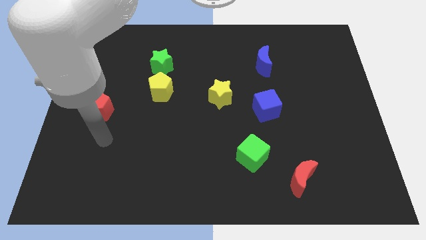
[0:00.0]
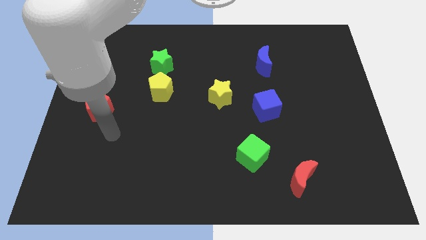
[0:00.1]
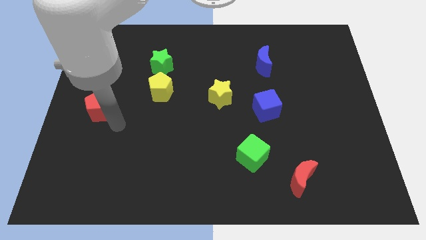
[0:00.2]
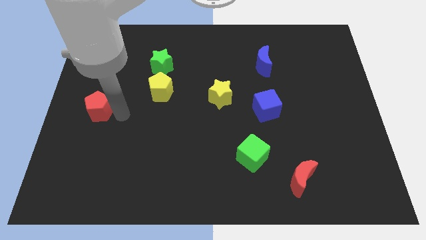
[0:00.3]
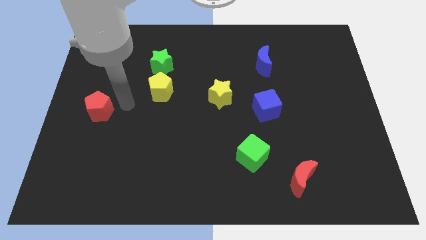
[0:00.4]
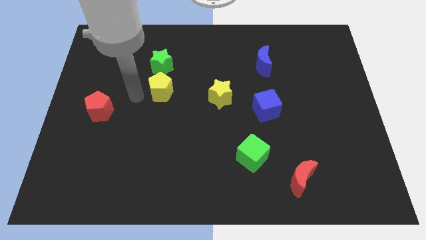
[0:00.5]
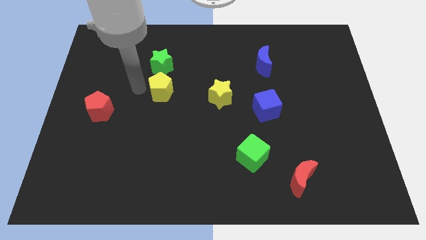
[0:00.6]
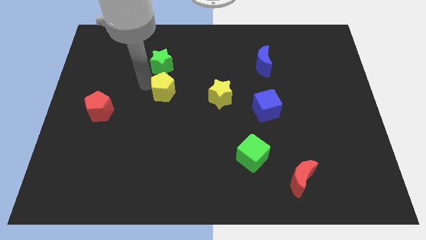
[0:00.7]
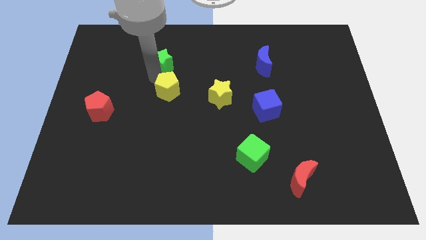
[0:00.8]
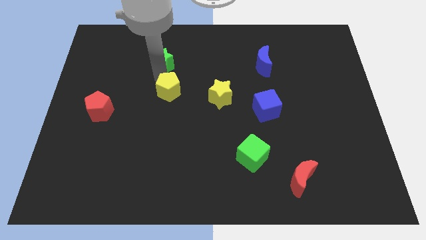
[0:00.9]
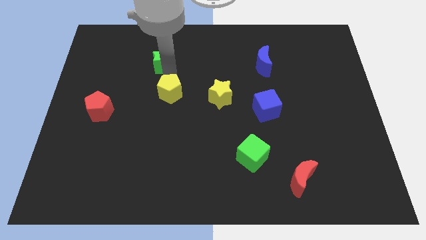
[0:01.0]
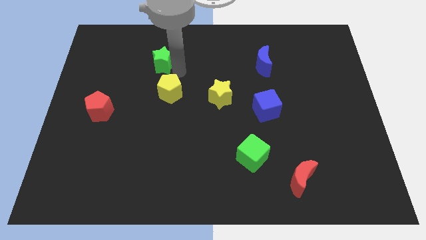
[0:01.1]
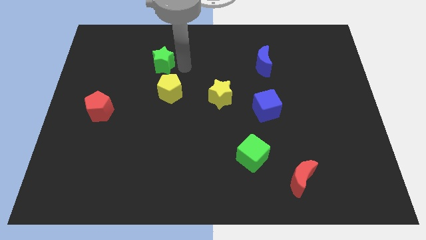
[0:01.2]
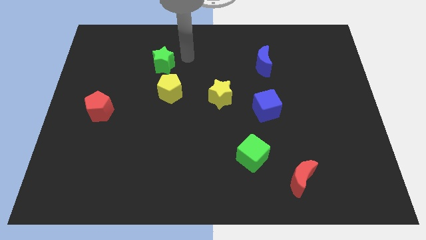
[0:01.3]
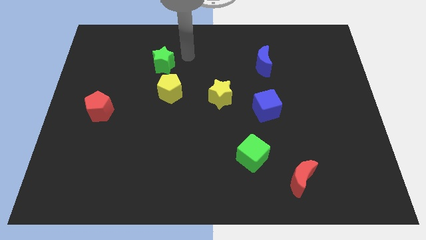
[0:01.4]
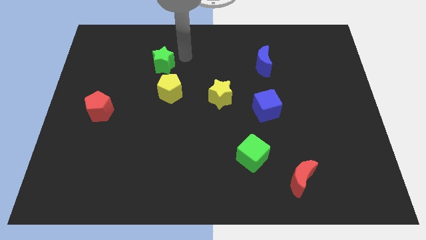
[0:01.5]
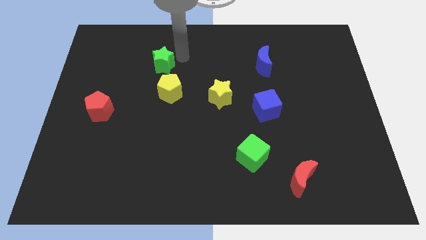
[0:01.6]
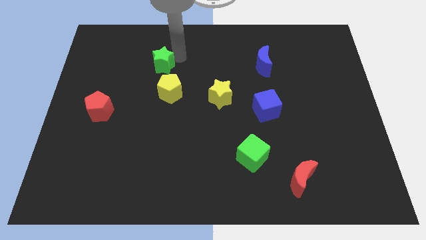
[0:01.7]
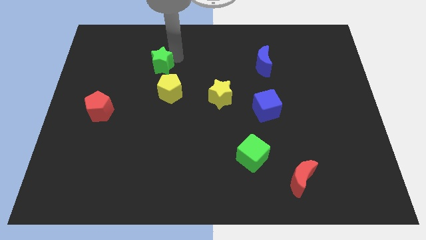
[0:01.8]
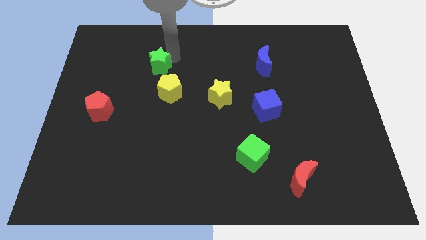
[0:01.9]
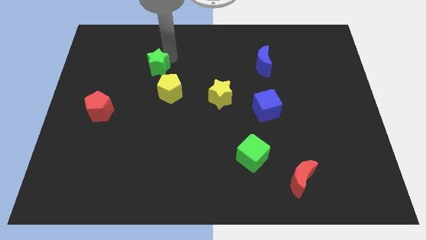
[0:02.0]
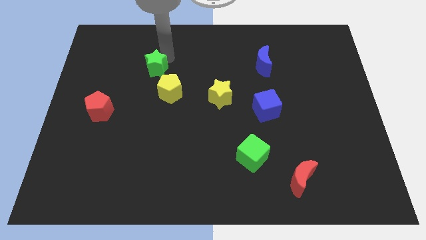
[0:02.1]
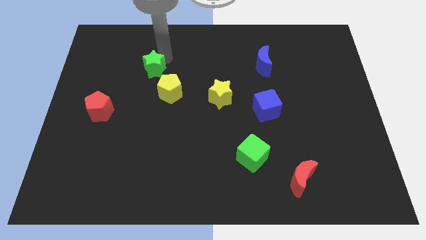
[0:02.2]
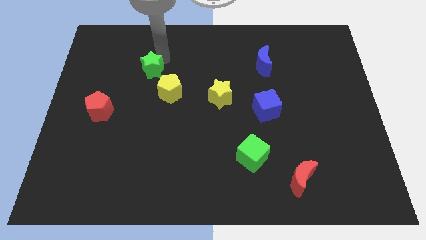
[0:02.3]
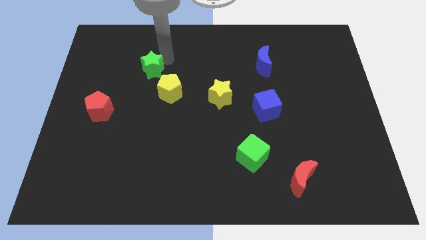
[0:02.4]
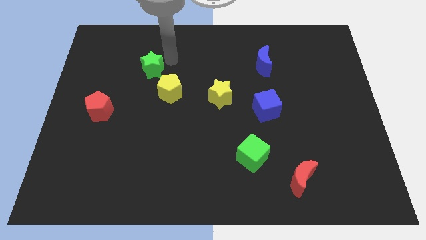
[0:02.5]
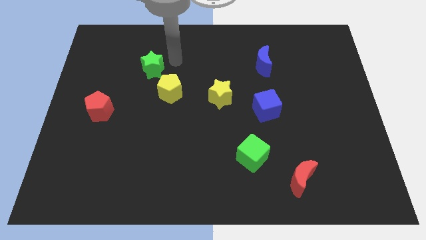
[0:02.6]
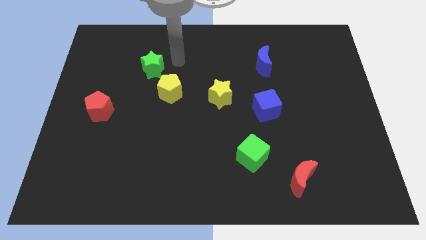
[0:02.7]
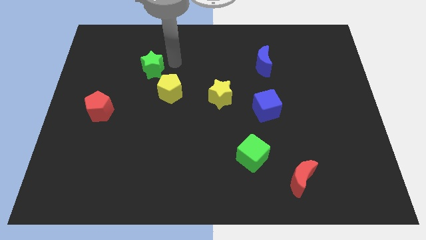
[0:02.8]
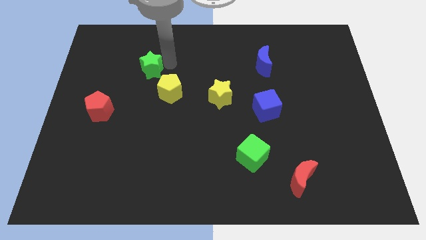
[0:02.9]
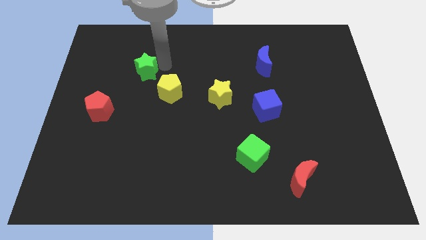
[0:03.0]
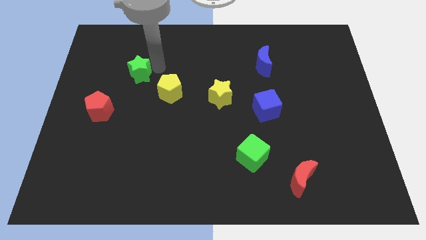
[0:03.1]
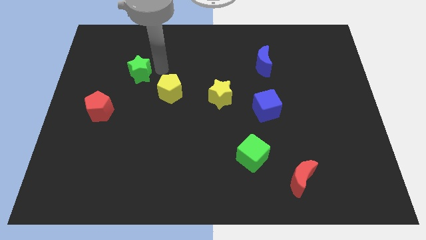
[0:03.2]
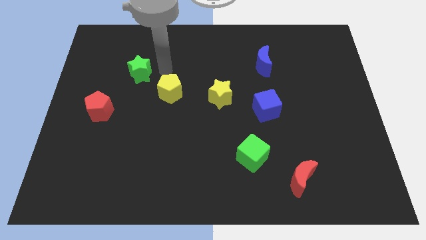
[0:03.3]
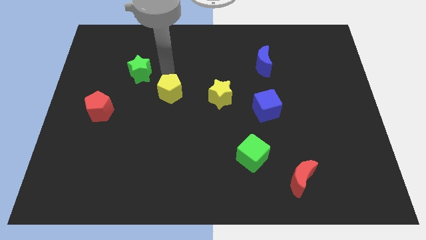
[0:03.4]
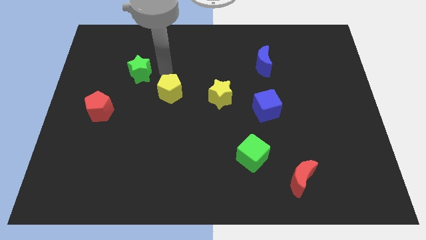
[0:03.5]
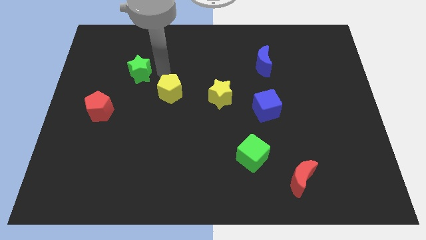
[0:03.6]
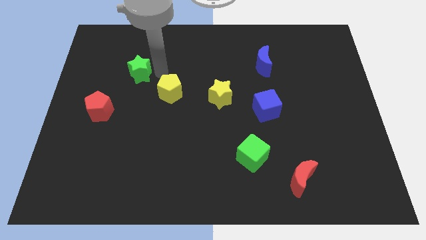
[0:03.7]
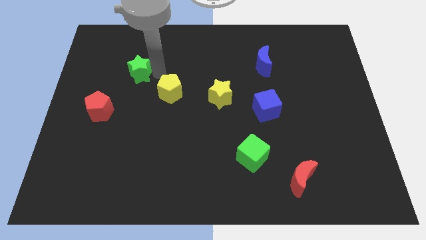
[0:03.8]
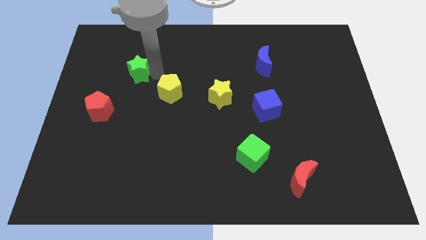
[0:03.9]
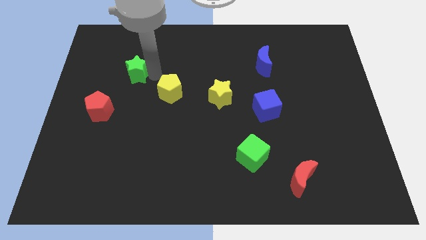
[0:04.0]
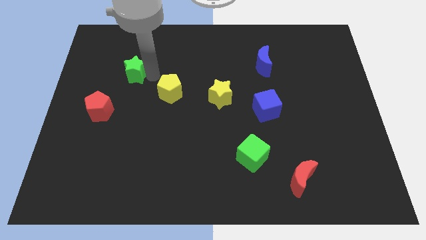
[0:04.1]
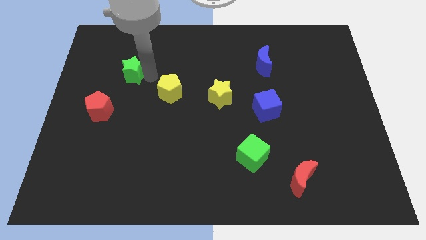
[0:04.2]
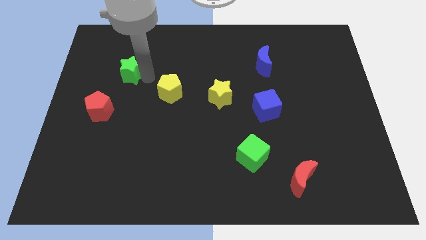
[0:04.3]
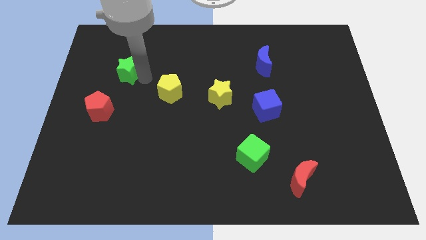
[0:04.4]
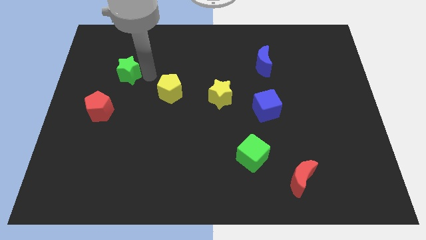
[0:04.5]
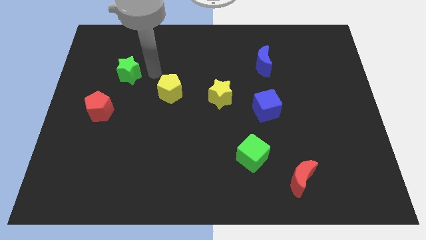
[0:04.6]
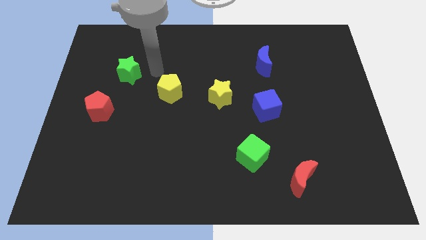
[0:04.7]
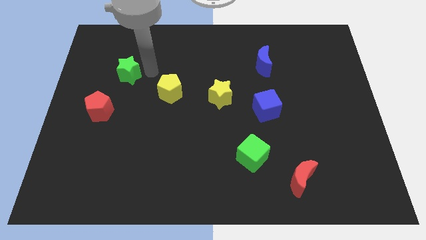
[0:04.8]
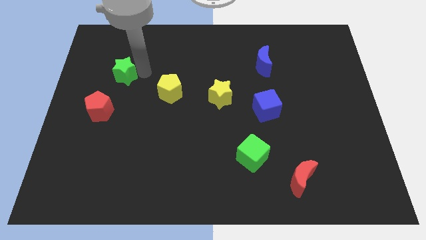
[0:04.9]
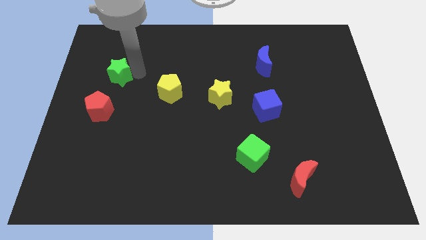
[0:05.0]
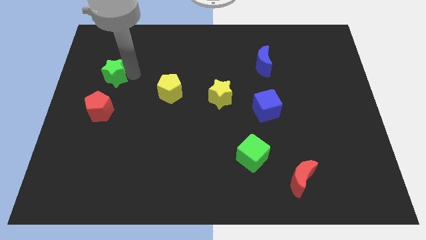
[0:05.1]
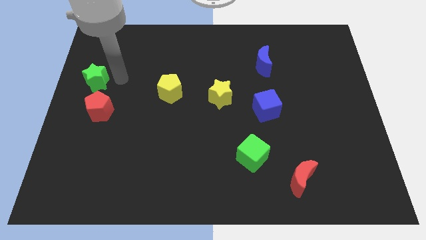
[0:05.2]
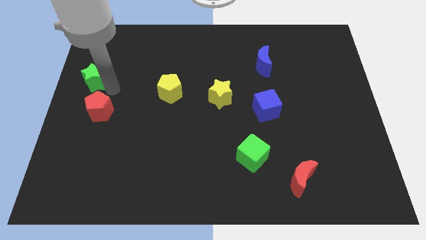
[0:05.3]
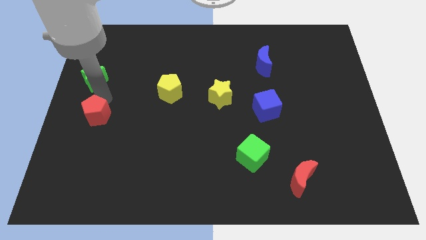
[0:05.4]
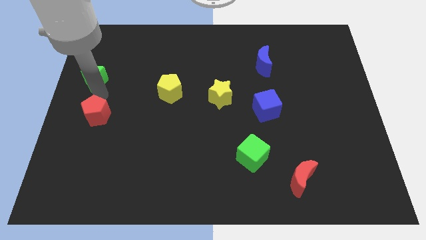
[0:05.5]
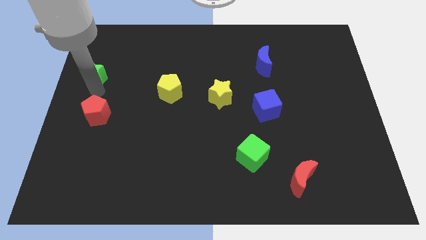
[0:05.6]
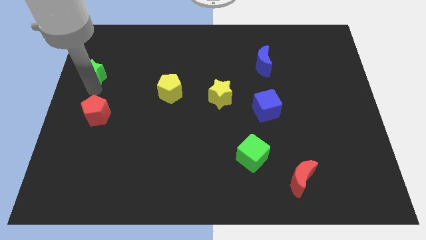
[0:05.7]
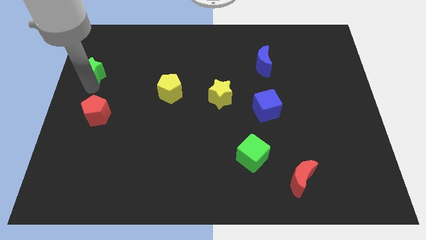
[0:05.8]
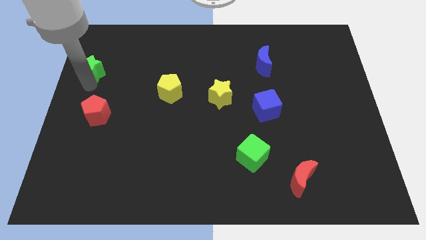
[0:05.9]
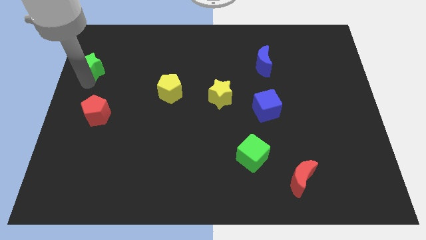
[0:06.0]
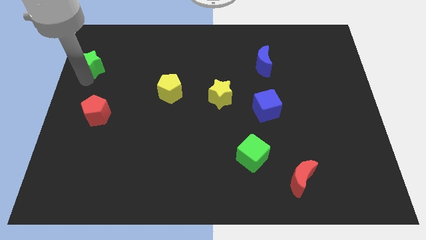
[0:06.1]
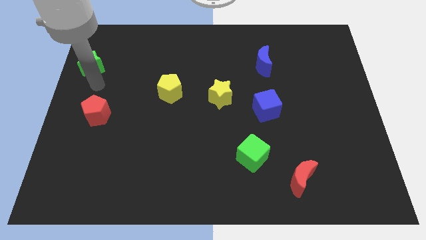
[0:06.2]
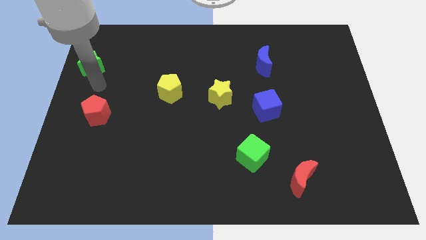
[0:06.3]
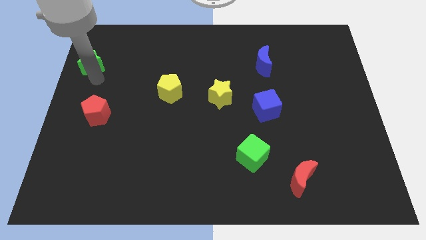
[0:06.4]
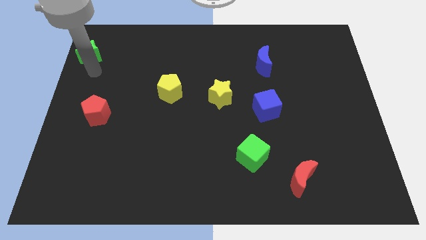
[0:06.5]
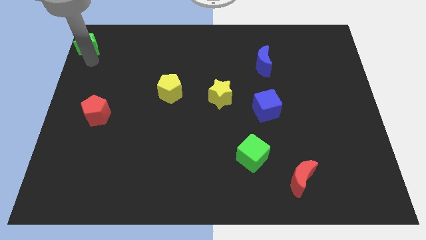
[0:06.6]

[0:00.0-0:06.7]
move the green star to the top left

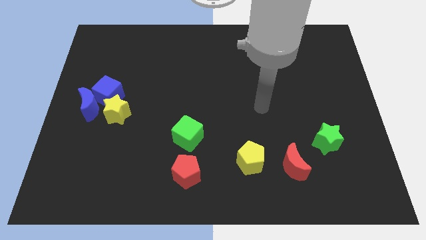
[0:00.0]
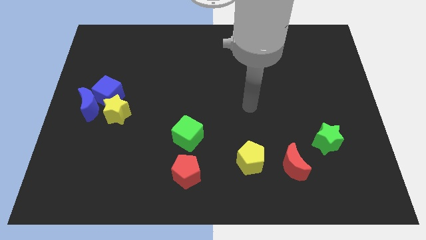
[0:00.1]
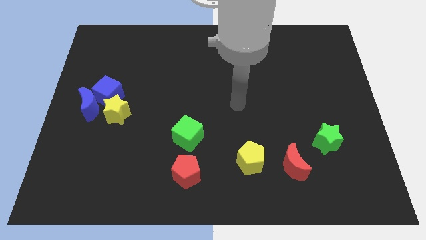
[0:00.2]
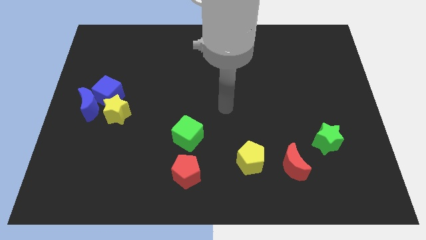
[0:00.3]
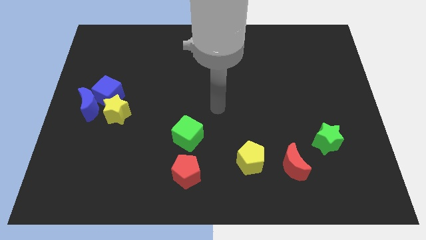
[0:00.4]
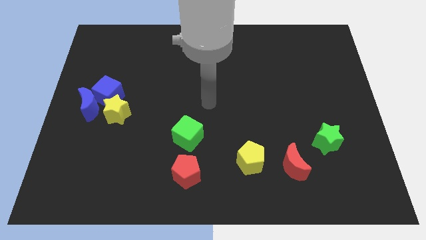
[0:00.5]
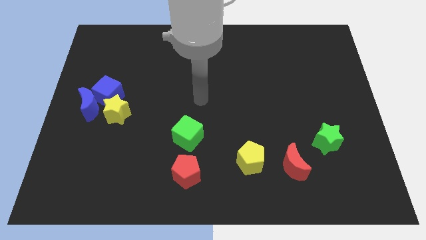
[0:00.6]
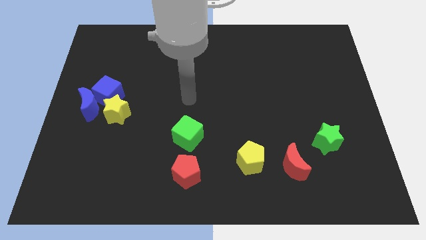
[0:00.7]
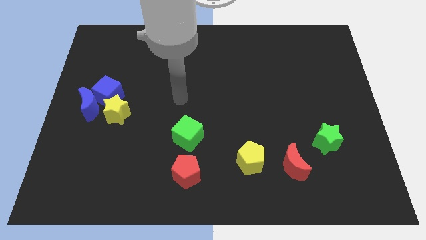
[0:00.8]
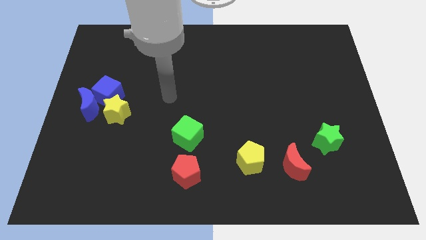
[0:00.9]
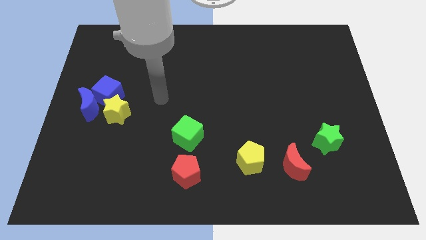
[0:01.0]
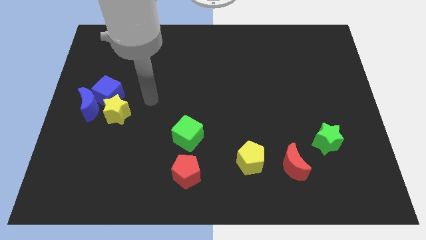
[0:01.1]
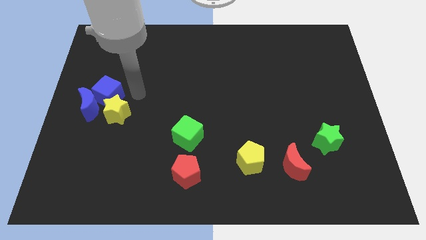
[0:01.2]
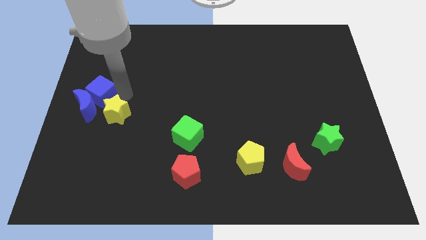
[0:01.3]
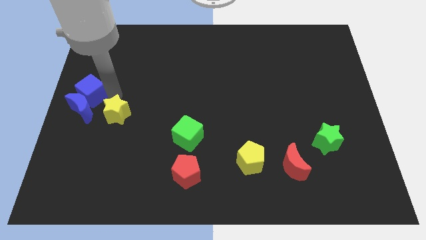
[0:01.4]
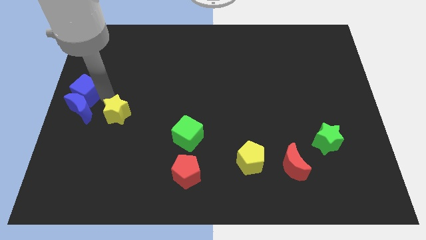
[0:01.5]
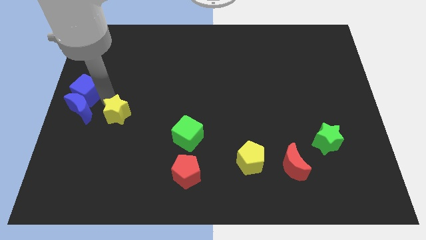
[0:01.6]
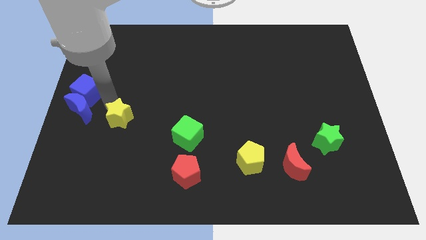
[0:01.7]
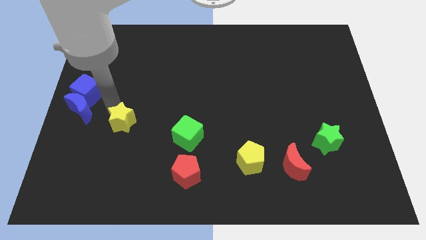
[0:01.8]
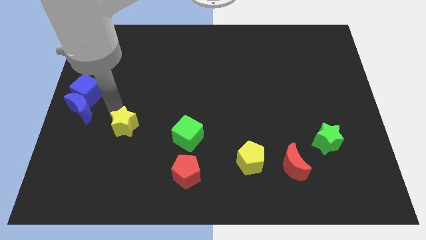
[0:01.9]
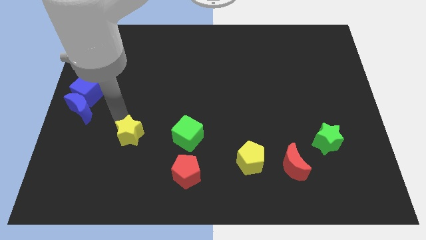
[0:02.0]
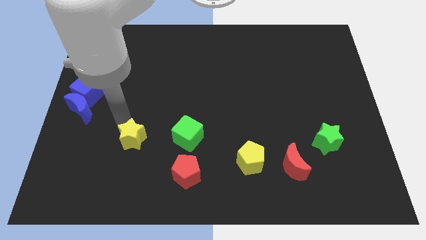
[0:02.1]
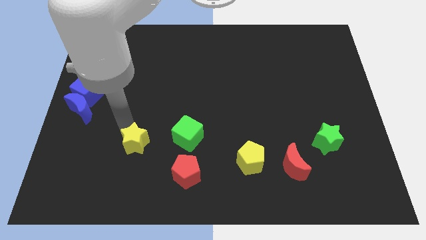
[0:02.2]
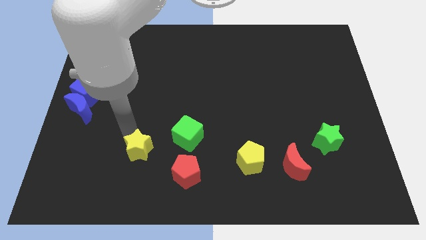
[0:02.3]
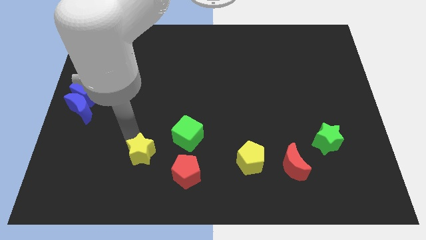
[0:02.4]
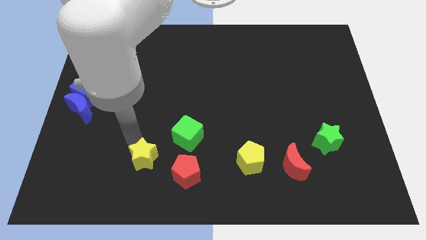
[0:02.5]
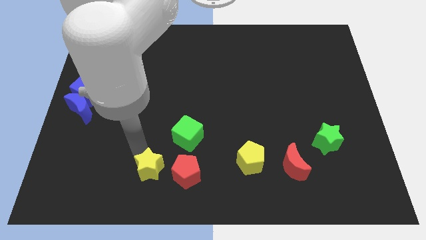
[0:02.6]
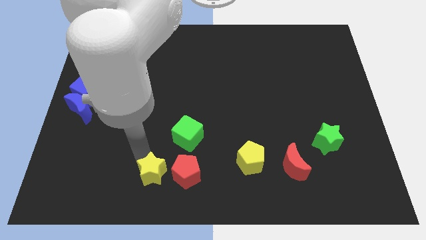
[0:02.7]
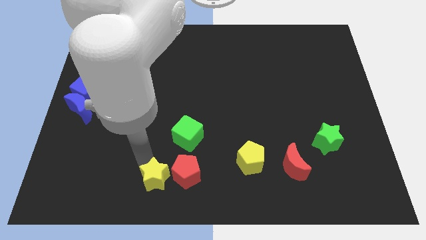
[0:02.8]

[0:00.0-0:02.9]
put the yellow star to the bottom
